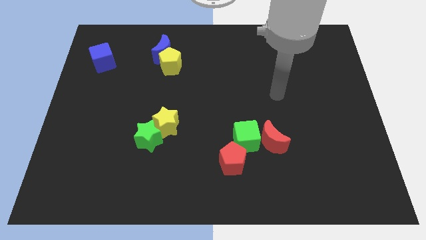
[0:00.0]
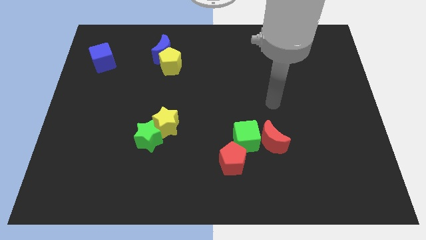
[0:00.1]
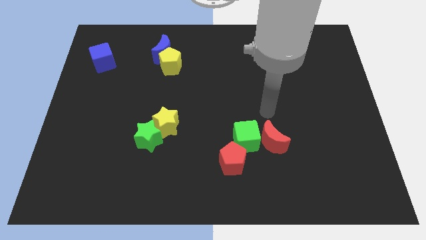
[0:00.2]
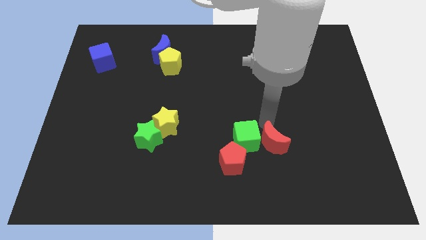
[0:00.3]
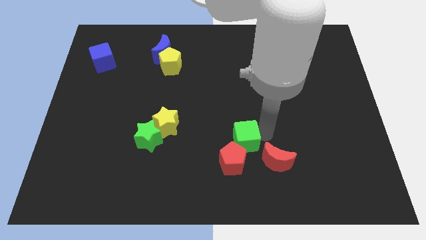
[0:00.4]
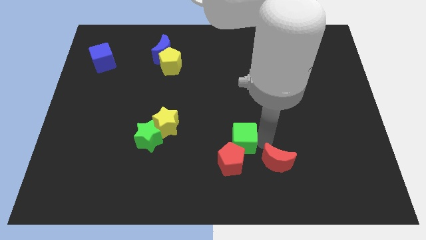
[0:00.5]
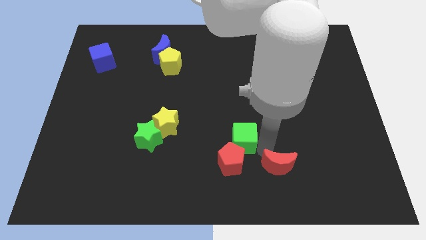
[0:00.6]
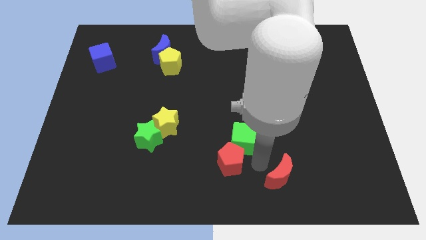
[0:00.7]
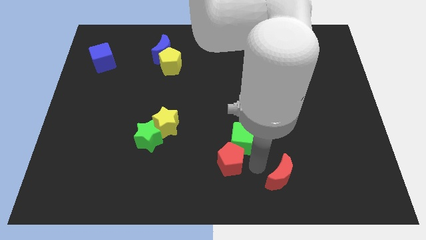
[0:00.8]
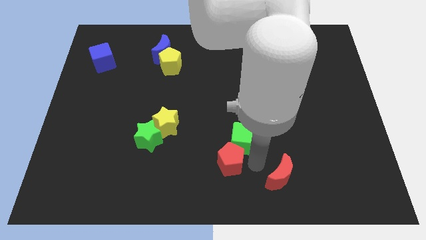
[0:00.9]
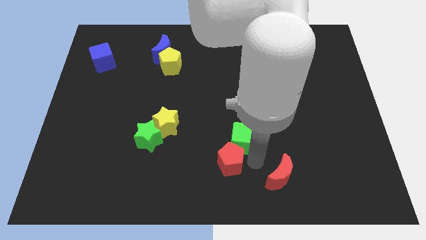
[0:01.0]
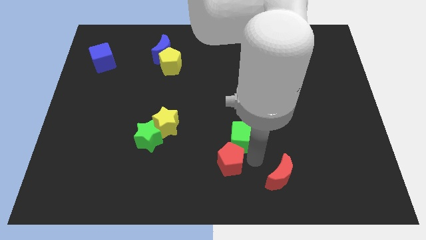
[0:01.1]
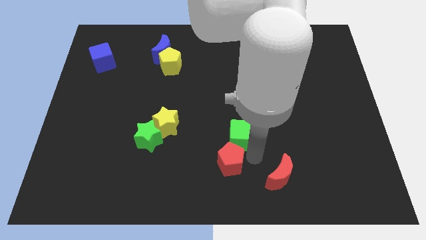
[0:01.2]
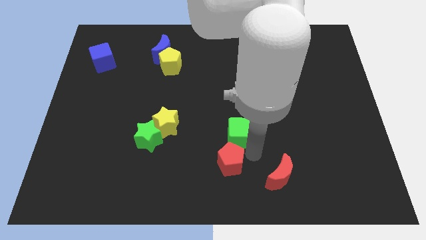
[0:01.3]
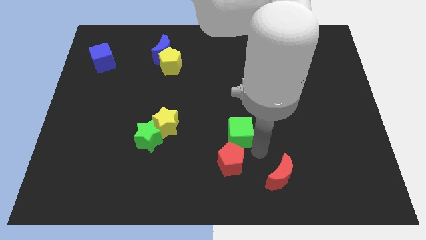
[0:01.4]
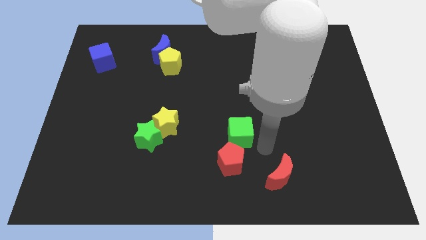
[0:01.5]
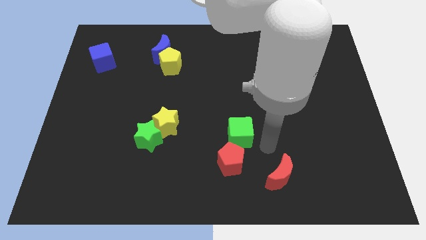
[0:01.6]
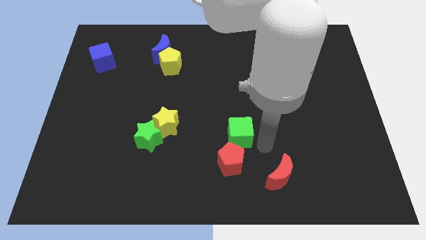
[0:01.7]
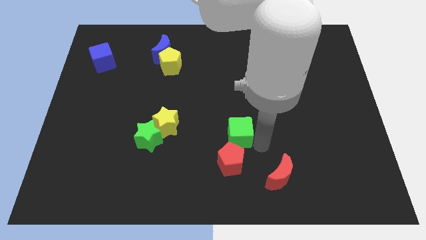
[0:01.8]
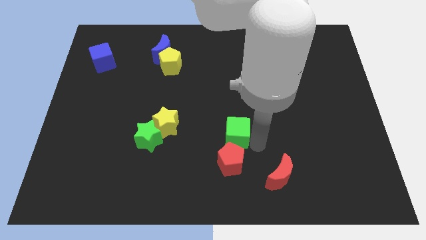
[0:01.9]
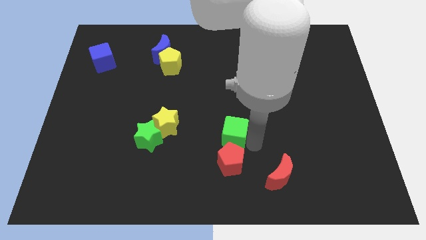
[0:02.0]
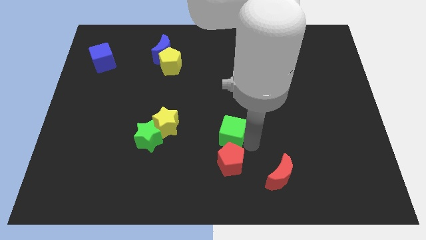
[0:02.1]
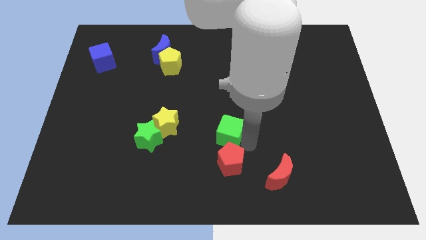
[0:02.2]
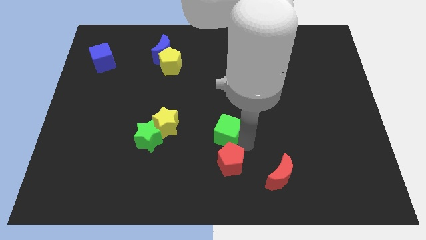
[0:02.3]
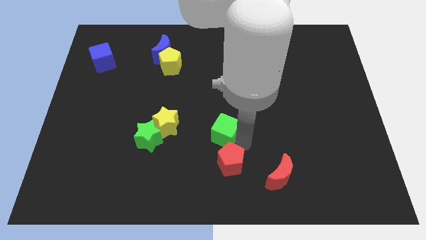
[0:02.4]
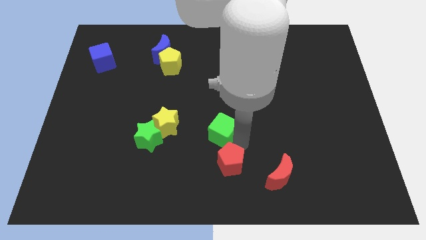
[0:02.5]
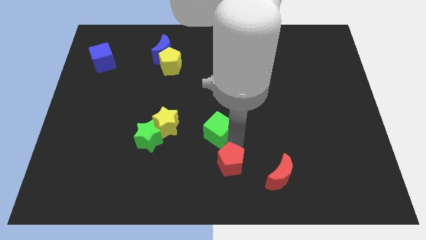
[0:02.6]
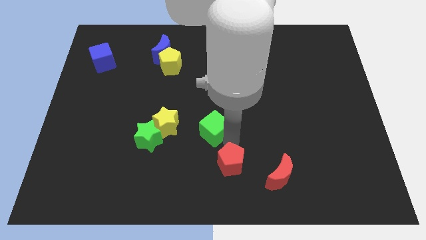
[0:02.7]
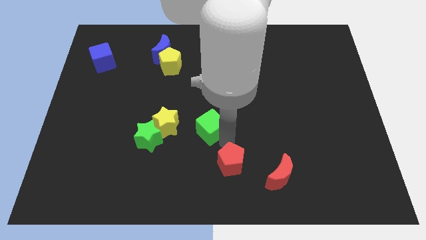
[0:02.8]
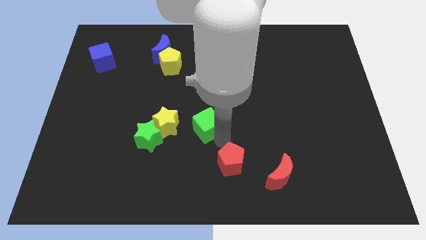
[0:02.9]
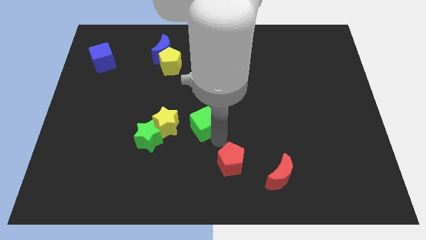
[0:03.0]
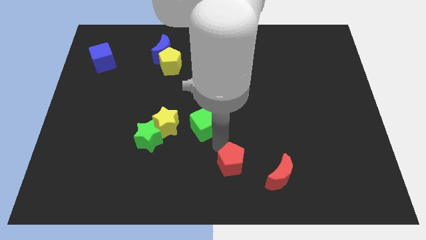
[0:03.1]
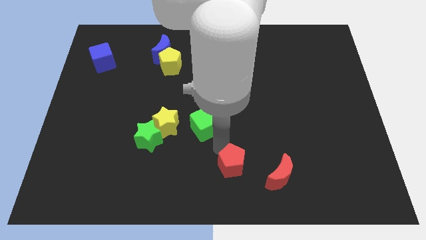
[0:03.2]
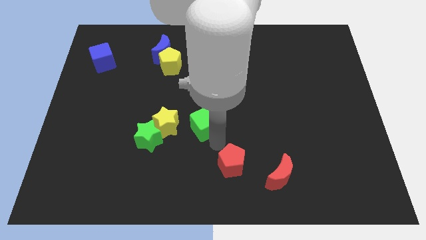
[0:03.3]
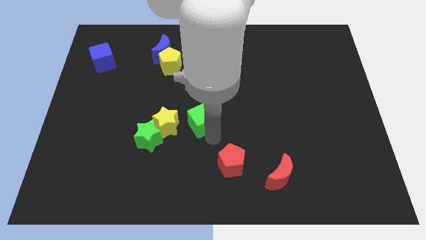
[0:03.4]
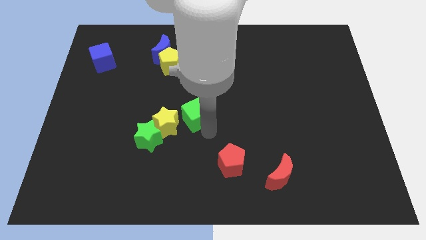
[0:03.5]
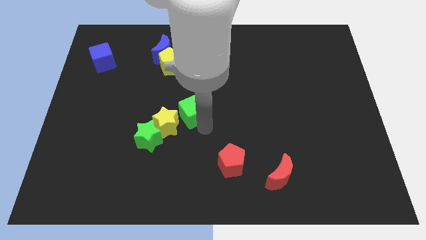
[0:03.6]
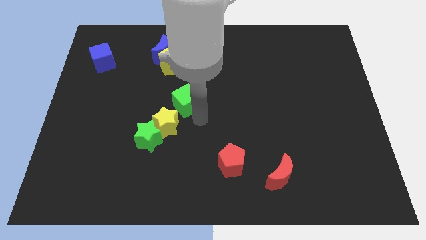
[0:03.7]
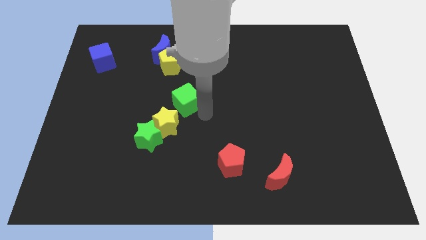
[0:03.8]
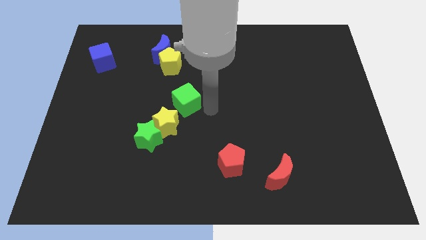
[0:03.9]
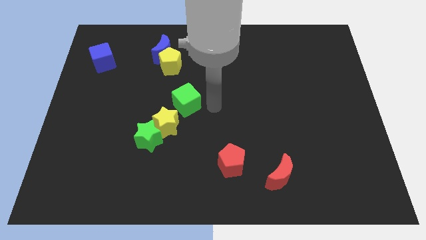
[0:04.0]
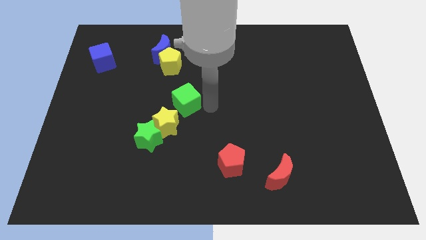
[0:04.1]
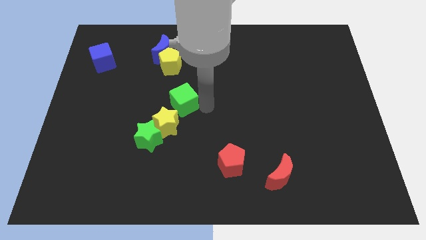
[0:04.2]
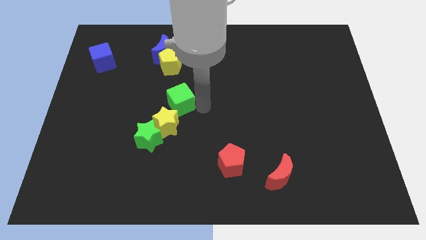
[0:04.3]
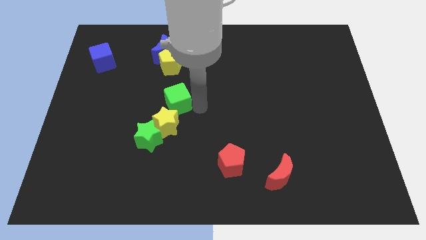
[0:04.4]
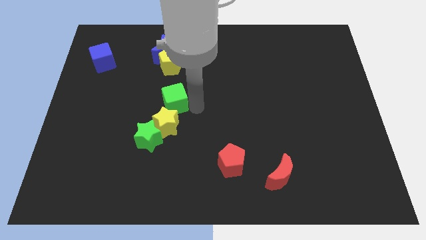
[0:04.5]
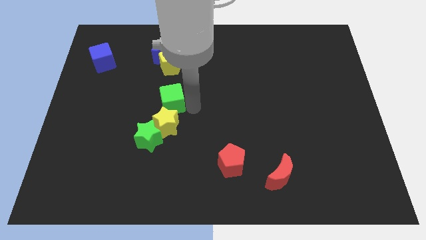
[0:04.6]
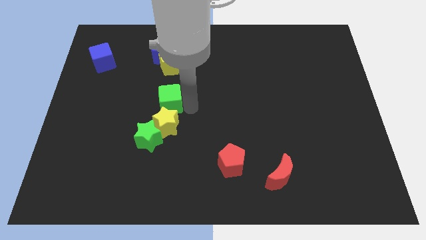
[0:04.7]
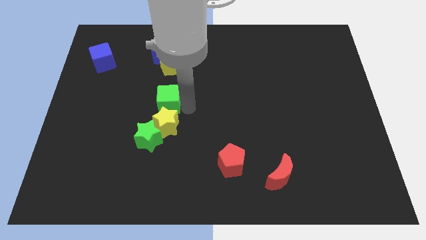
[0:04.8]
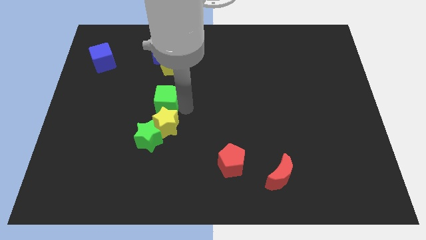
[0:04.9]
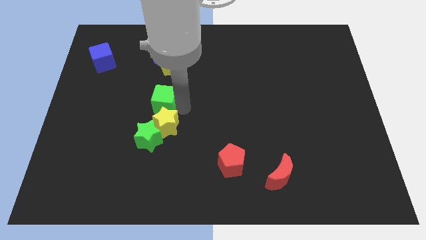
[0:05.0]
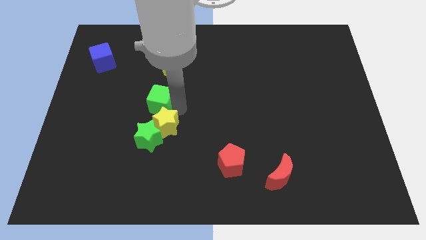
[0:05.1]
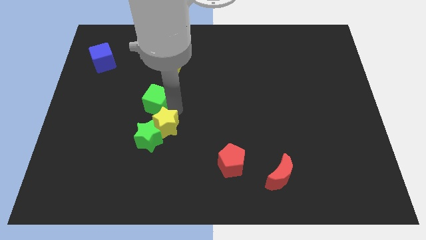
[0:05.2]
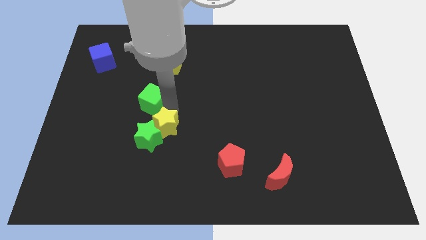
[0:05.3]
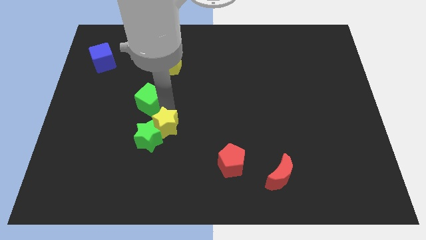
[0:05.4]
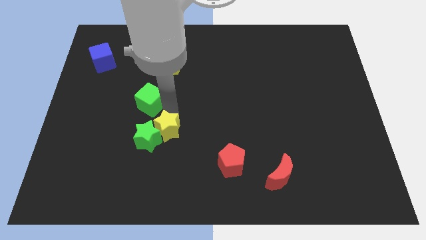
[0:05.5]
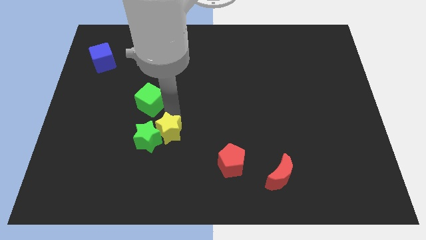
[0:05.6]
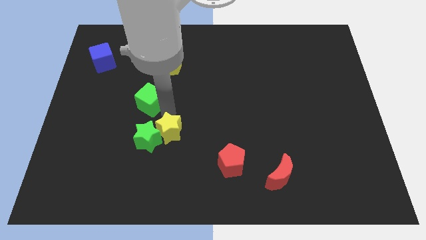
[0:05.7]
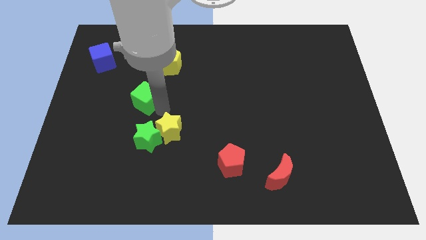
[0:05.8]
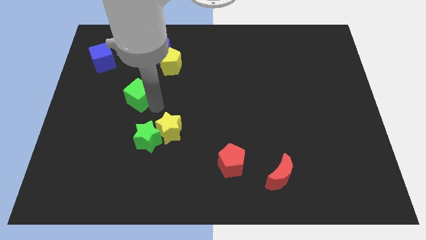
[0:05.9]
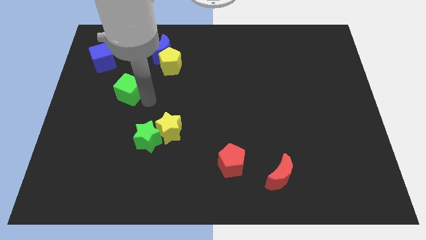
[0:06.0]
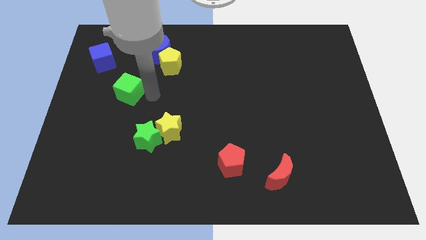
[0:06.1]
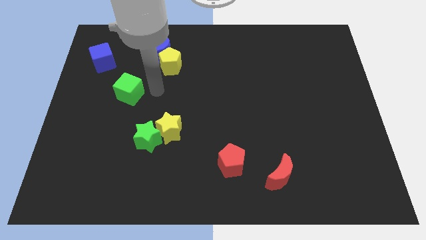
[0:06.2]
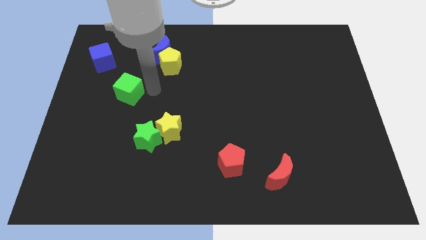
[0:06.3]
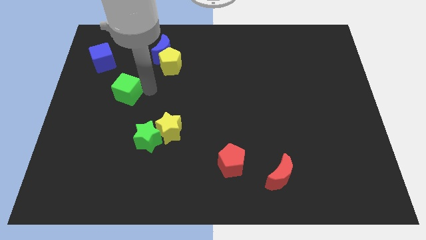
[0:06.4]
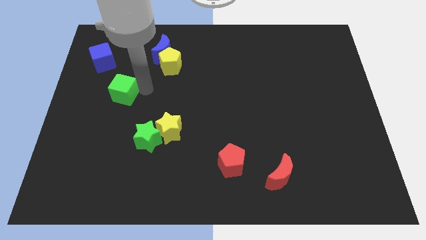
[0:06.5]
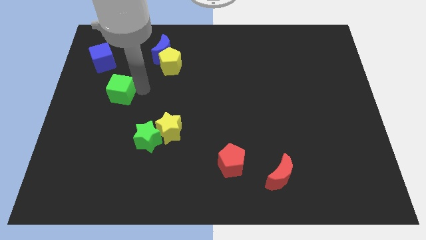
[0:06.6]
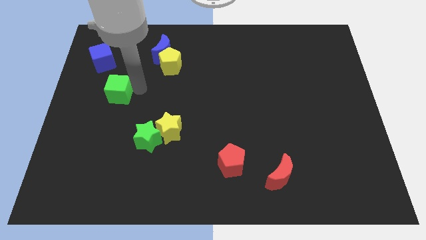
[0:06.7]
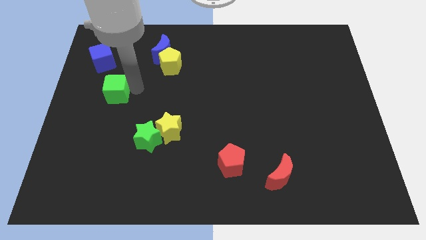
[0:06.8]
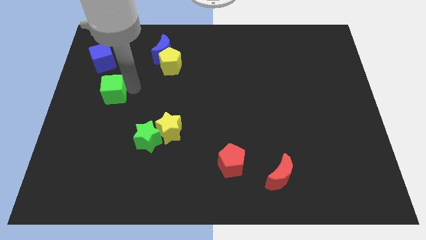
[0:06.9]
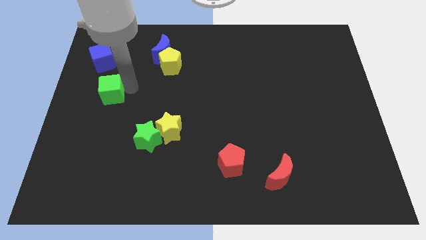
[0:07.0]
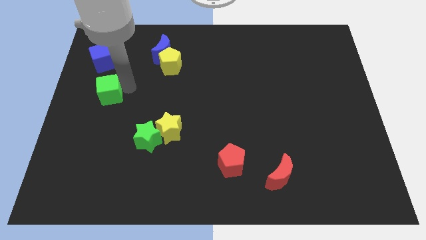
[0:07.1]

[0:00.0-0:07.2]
move the green cube to the left side of the board
